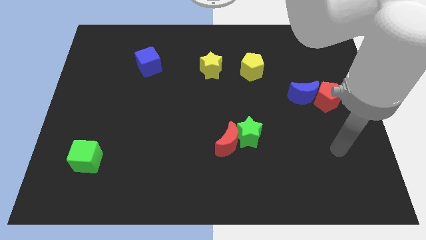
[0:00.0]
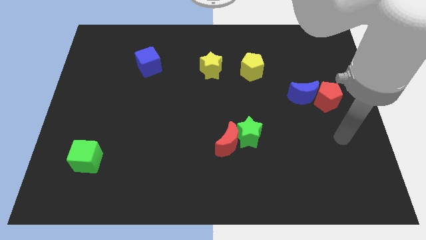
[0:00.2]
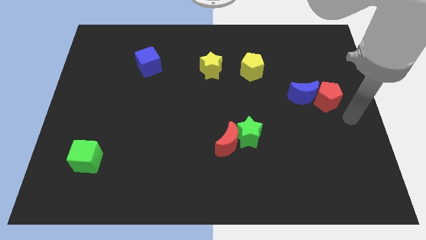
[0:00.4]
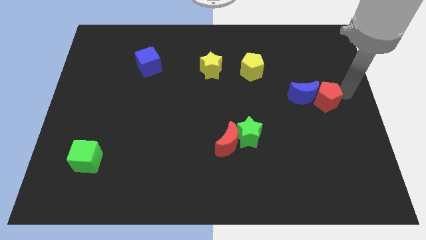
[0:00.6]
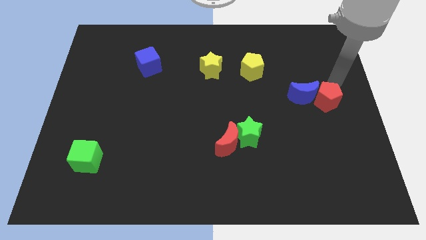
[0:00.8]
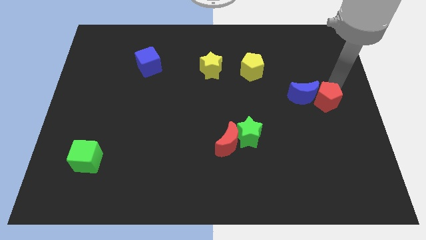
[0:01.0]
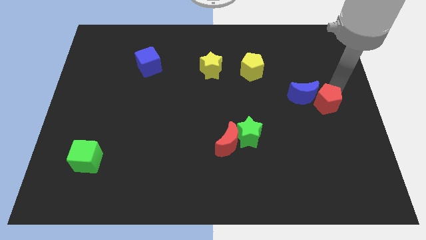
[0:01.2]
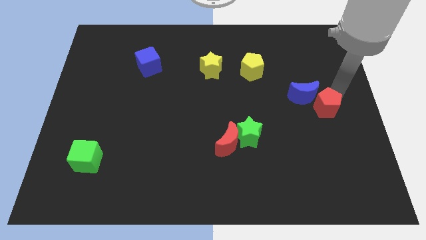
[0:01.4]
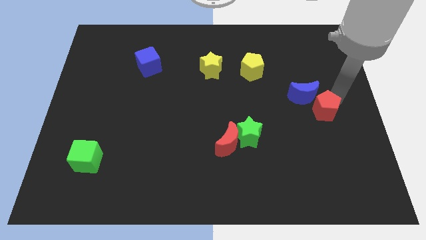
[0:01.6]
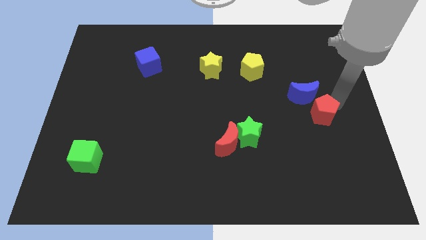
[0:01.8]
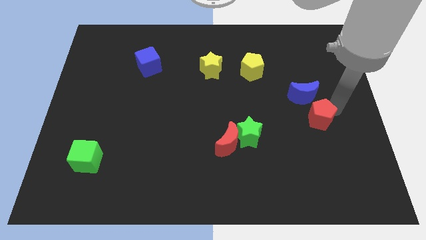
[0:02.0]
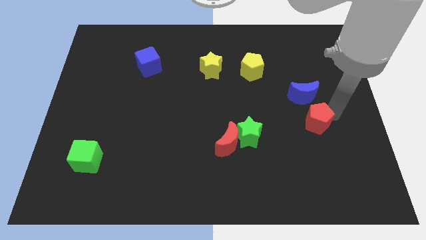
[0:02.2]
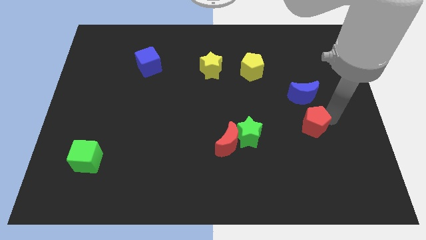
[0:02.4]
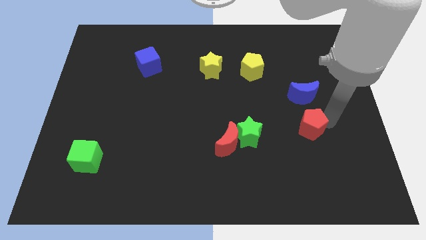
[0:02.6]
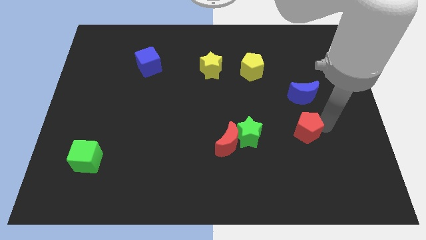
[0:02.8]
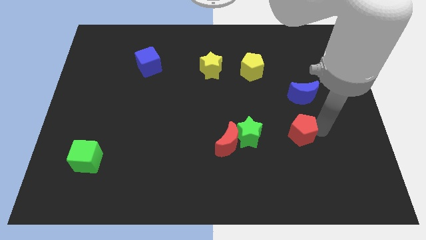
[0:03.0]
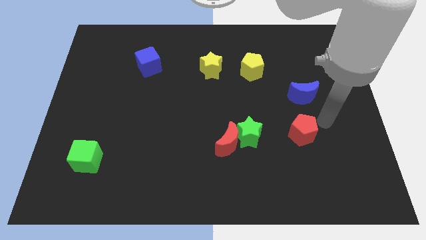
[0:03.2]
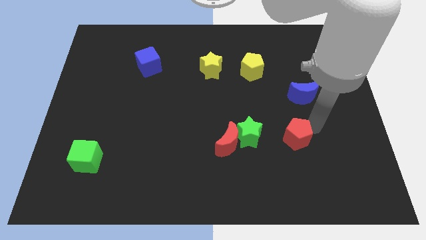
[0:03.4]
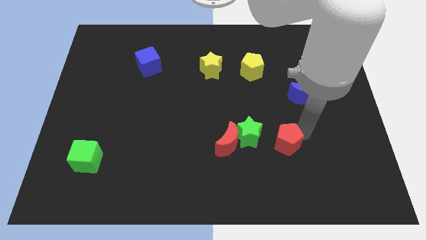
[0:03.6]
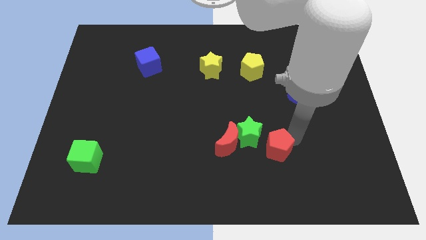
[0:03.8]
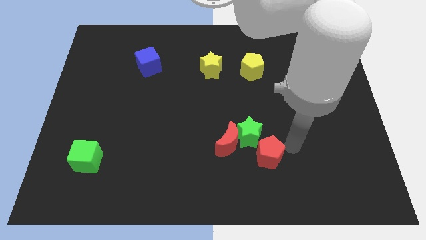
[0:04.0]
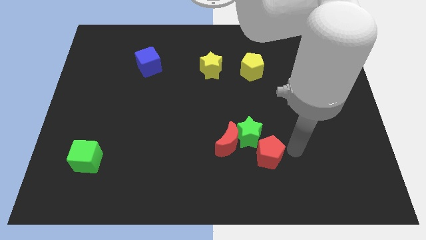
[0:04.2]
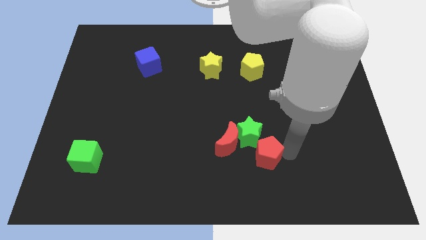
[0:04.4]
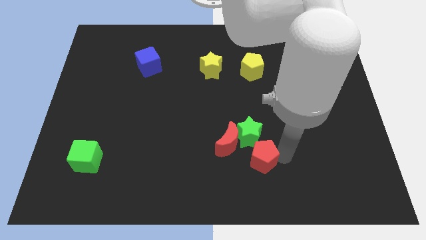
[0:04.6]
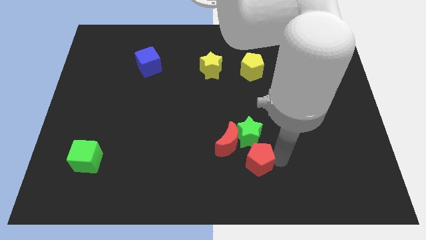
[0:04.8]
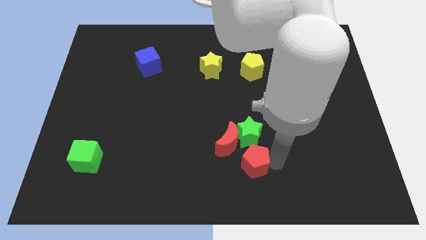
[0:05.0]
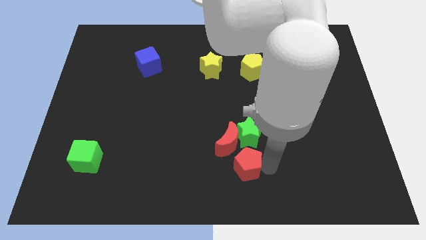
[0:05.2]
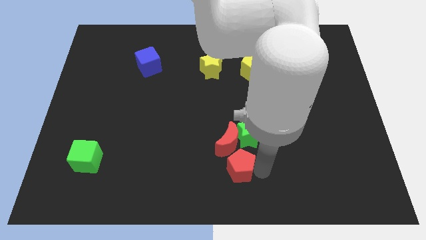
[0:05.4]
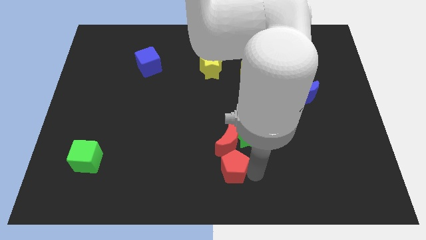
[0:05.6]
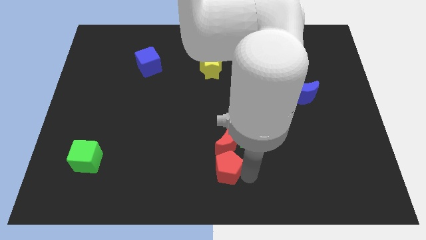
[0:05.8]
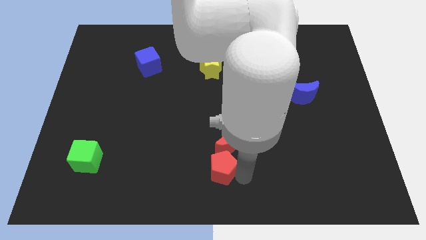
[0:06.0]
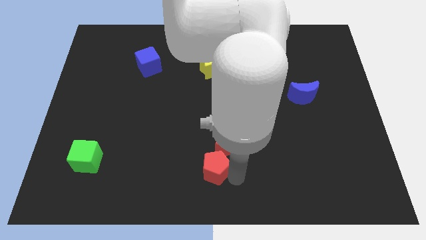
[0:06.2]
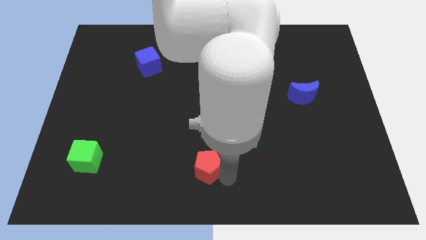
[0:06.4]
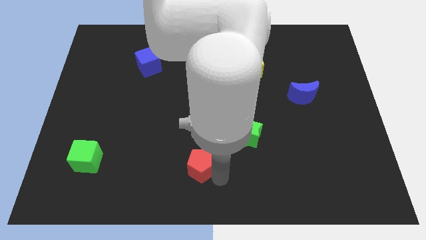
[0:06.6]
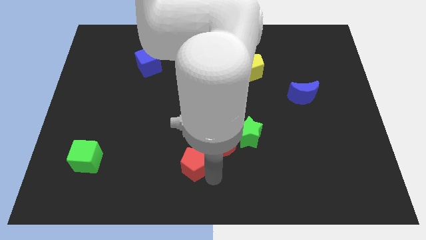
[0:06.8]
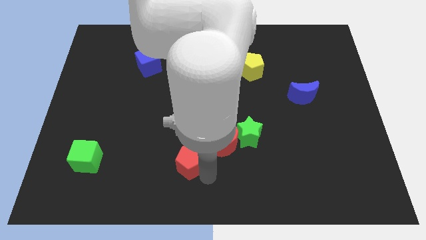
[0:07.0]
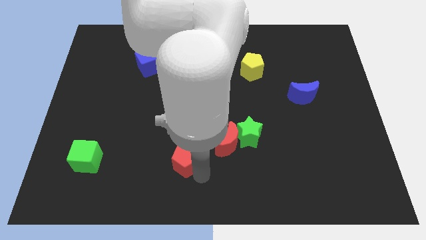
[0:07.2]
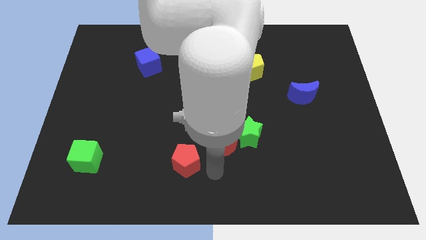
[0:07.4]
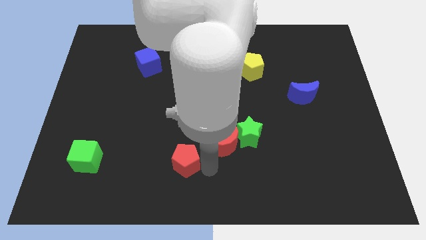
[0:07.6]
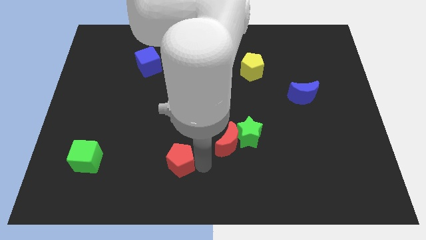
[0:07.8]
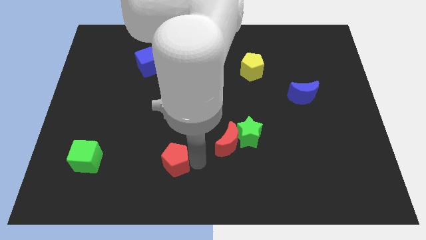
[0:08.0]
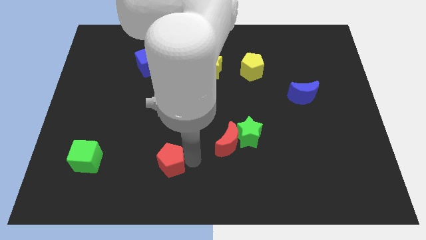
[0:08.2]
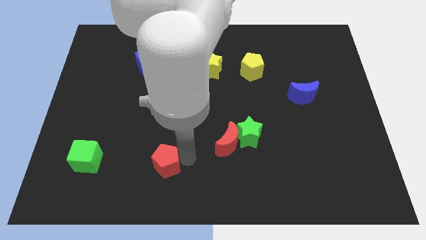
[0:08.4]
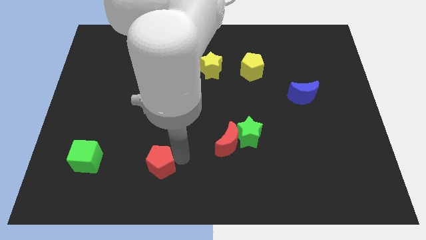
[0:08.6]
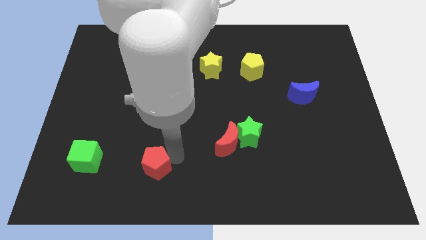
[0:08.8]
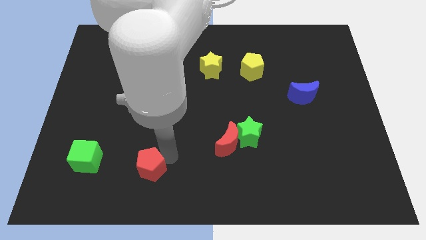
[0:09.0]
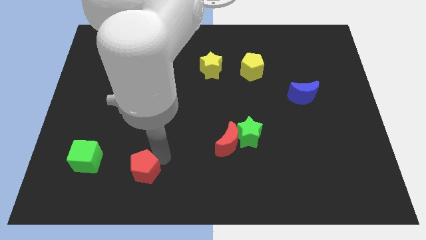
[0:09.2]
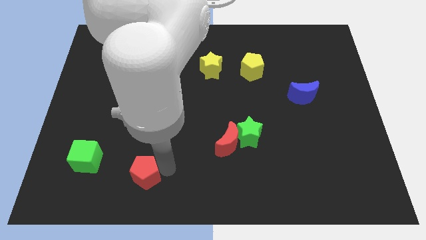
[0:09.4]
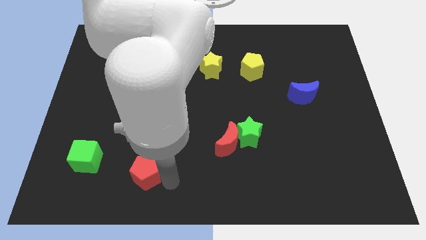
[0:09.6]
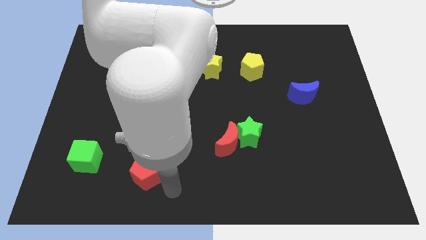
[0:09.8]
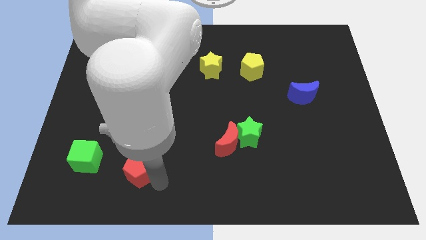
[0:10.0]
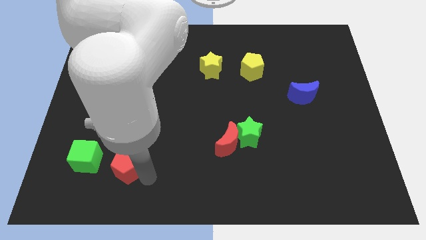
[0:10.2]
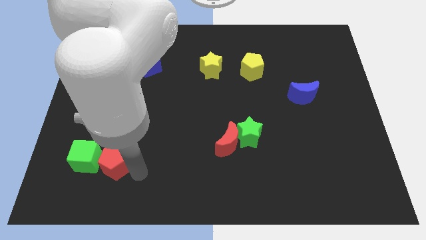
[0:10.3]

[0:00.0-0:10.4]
push the red pentagon towards the green cube

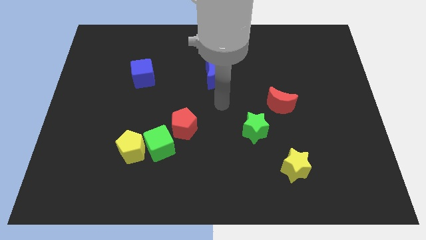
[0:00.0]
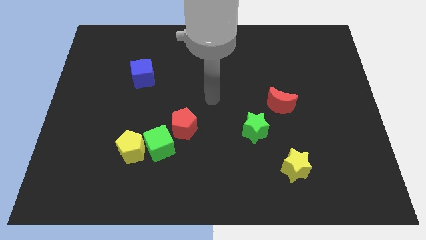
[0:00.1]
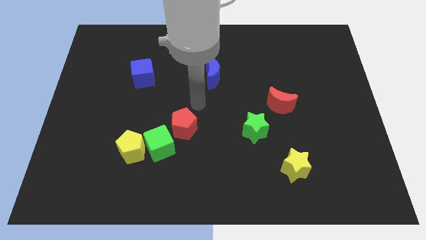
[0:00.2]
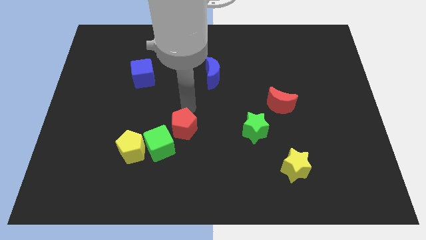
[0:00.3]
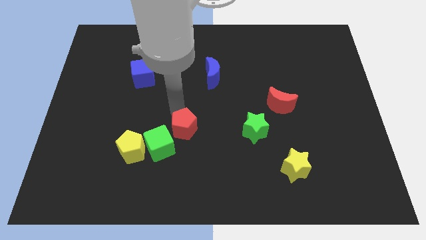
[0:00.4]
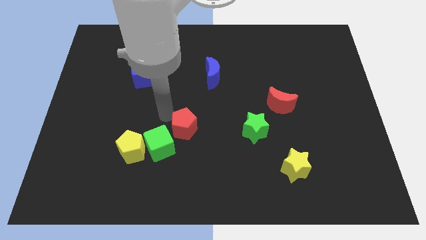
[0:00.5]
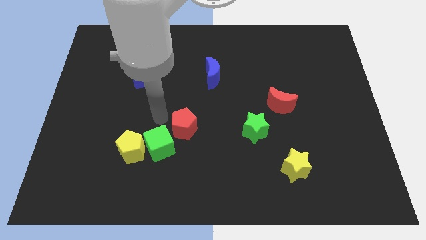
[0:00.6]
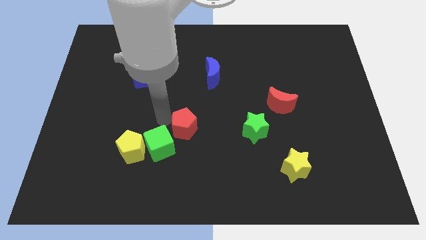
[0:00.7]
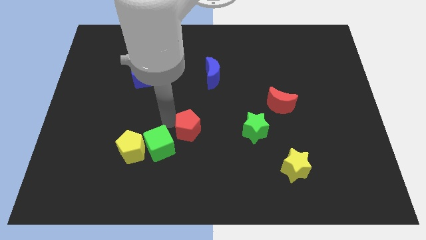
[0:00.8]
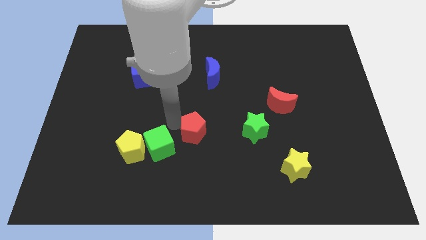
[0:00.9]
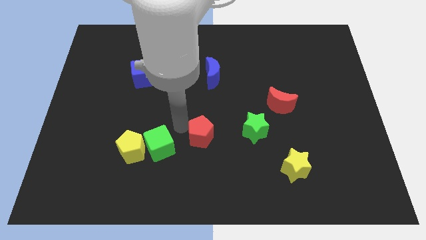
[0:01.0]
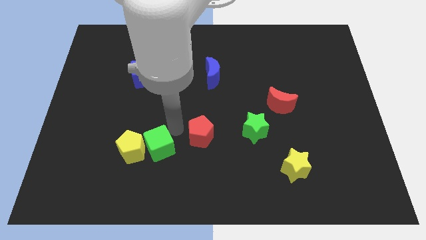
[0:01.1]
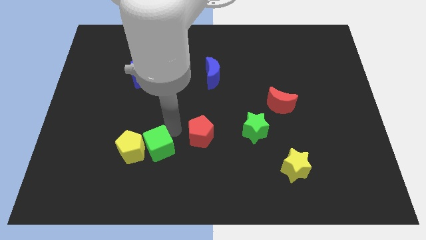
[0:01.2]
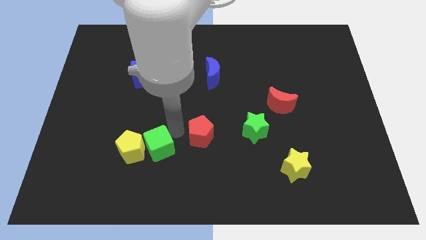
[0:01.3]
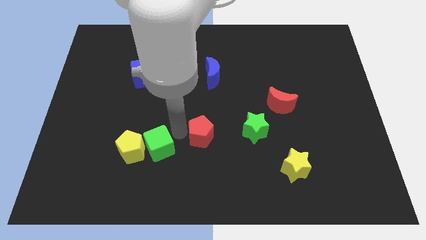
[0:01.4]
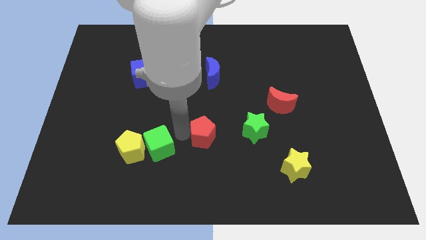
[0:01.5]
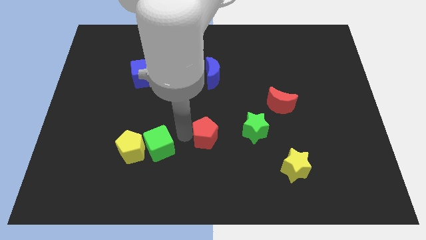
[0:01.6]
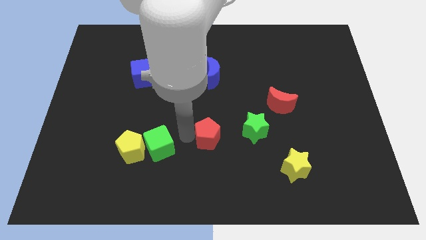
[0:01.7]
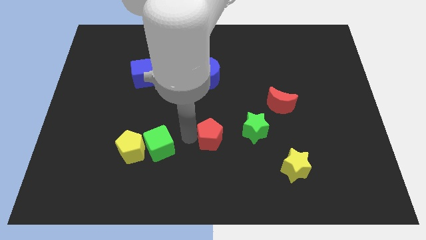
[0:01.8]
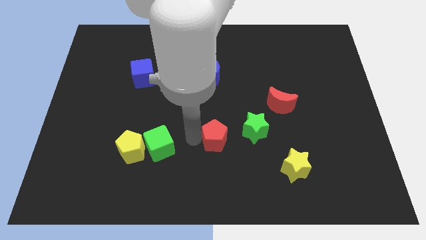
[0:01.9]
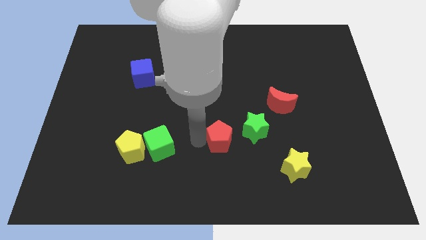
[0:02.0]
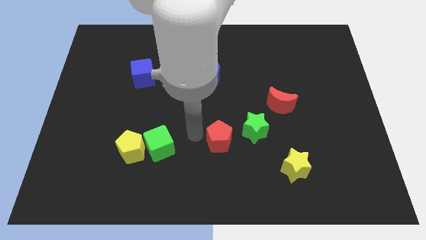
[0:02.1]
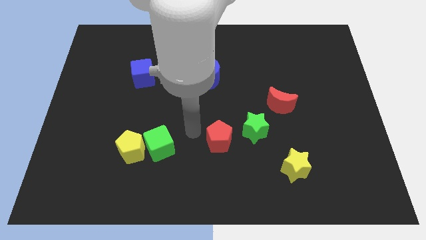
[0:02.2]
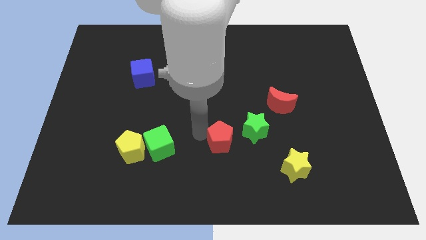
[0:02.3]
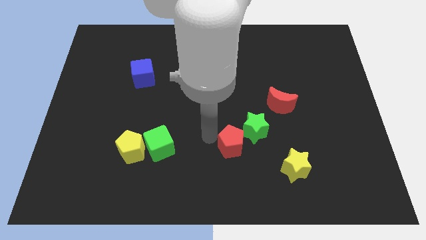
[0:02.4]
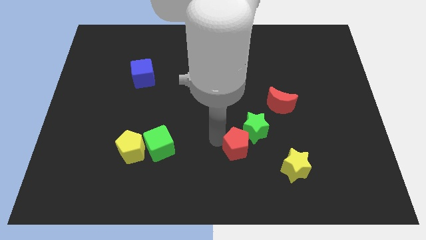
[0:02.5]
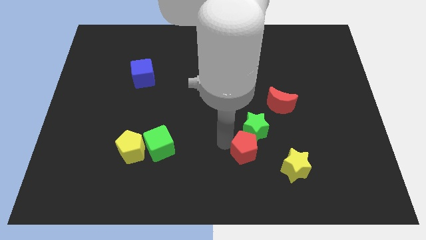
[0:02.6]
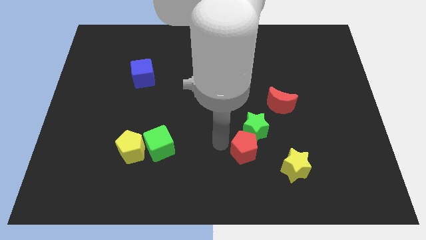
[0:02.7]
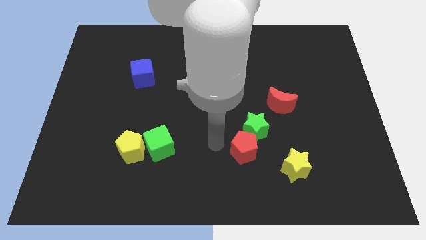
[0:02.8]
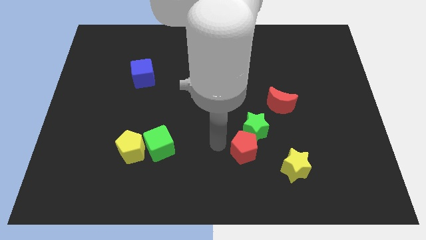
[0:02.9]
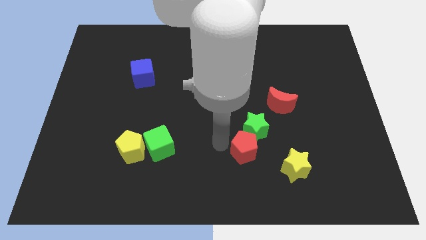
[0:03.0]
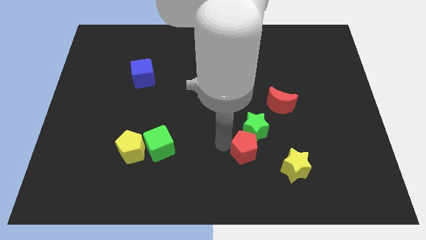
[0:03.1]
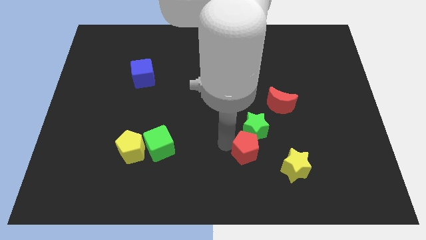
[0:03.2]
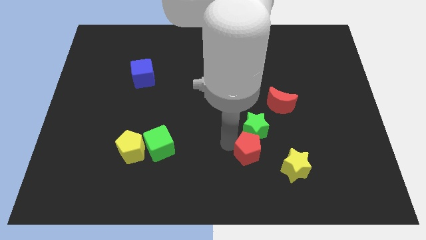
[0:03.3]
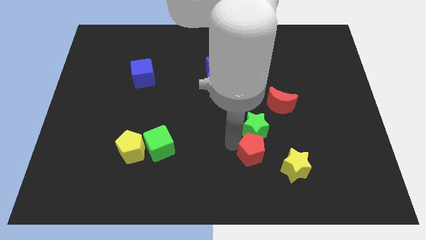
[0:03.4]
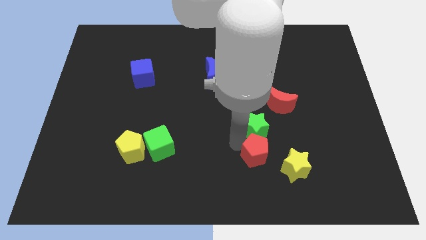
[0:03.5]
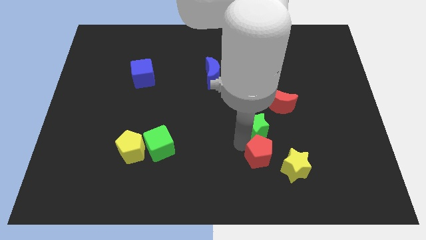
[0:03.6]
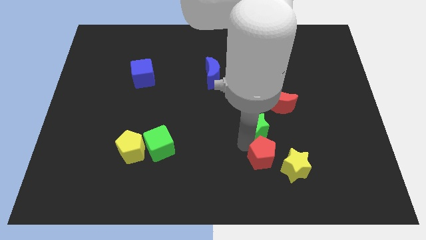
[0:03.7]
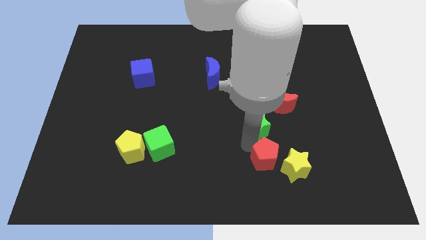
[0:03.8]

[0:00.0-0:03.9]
put the red pentagon next to the yellow star
